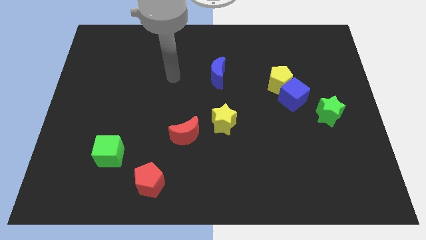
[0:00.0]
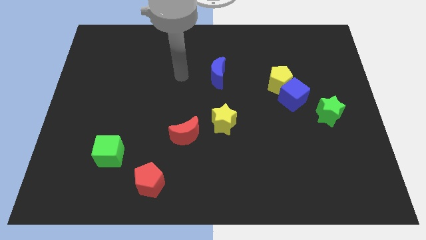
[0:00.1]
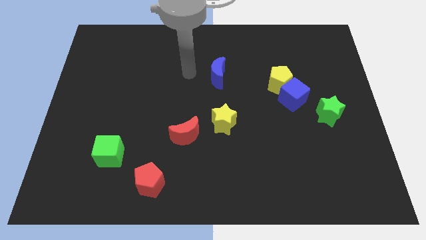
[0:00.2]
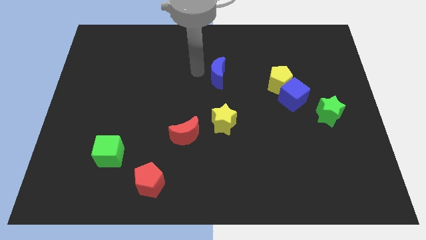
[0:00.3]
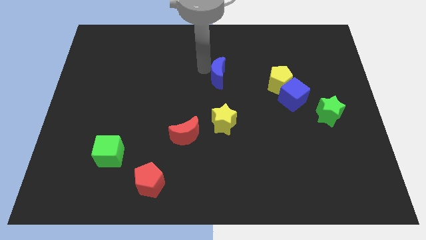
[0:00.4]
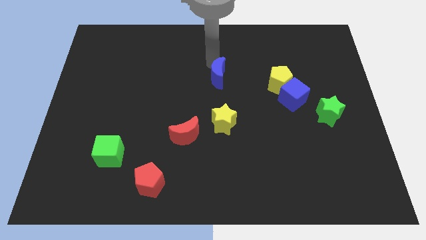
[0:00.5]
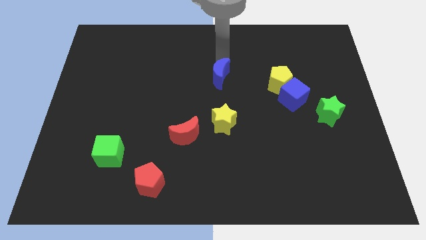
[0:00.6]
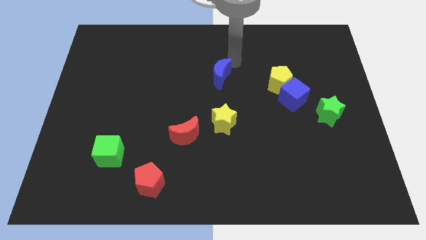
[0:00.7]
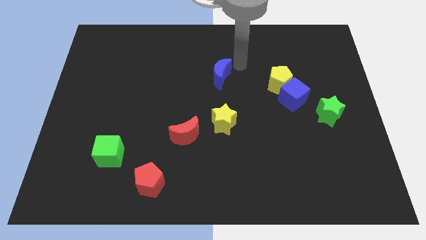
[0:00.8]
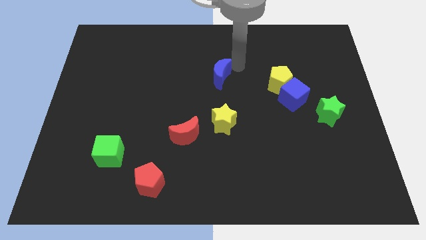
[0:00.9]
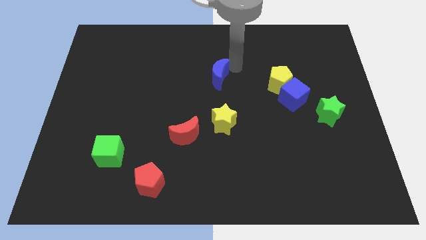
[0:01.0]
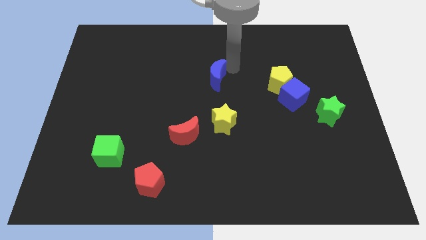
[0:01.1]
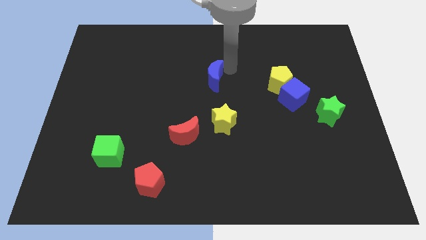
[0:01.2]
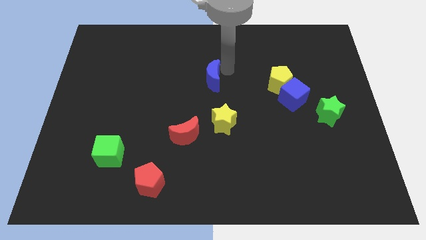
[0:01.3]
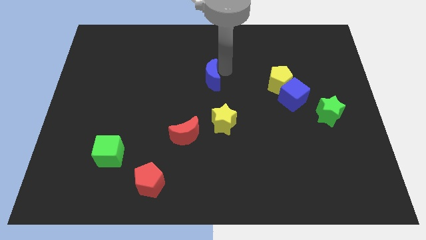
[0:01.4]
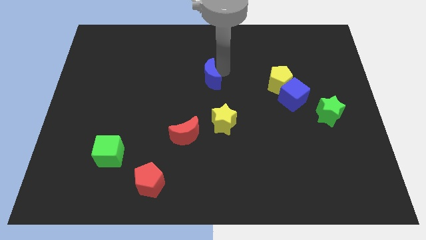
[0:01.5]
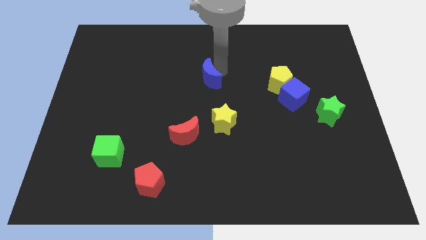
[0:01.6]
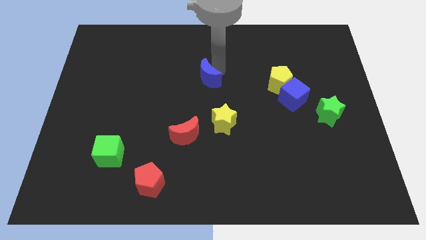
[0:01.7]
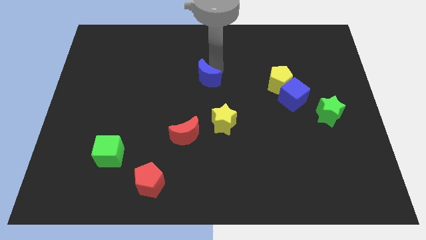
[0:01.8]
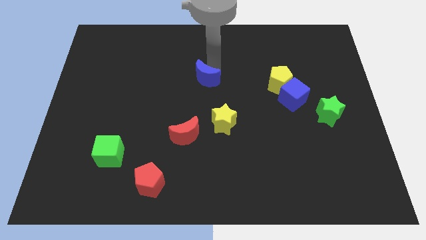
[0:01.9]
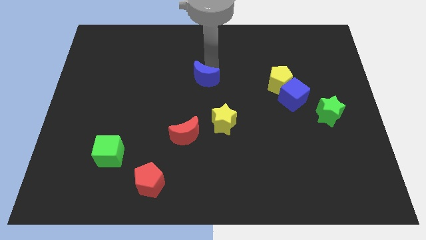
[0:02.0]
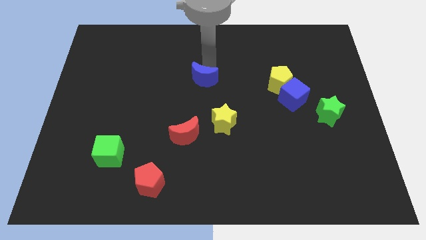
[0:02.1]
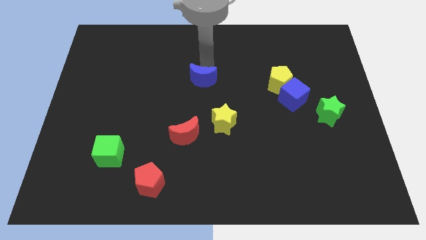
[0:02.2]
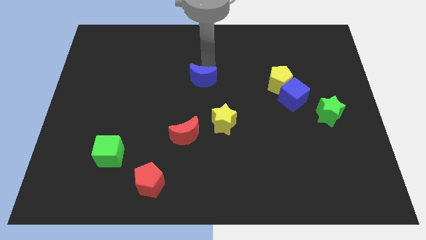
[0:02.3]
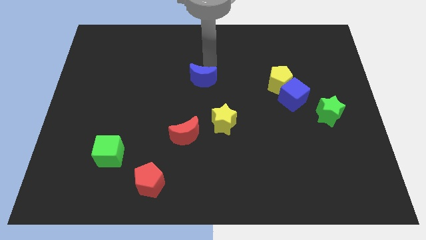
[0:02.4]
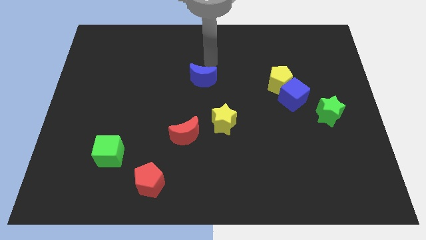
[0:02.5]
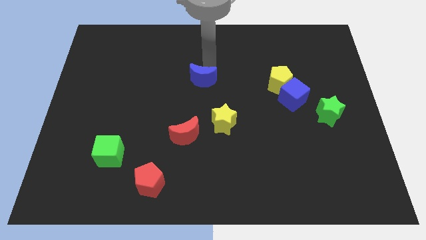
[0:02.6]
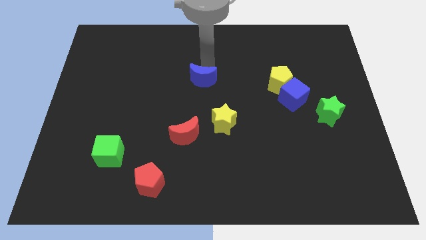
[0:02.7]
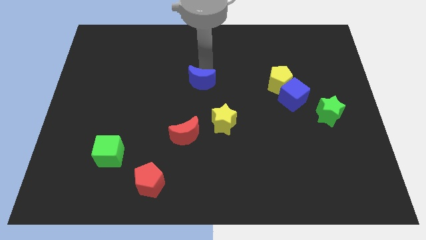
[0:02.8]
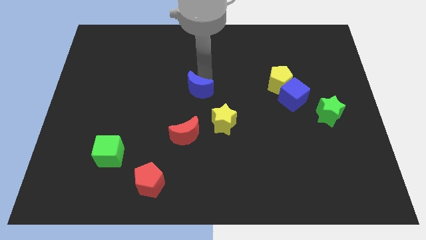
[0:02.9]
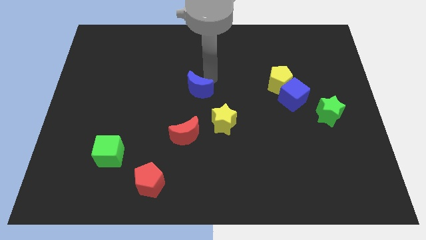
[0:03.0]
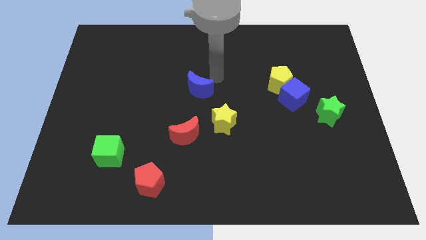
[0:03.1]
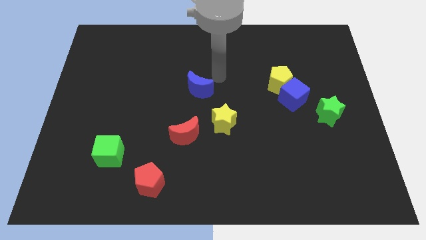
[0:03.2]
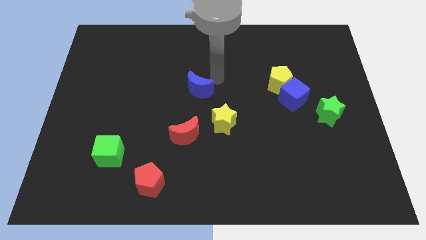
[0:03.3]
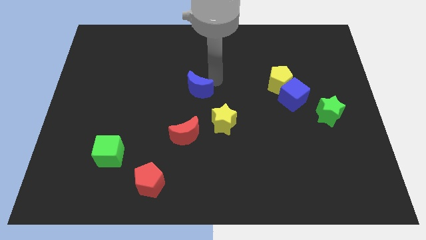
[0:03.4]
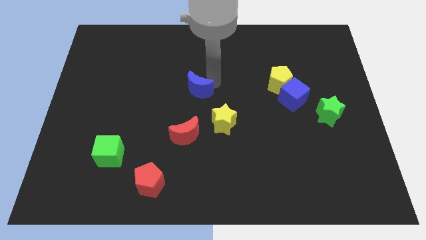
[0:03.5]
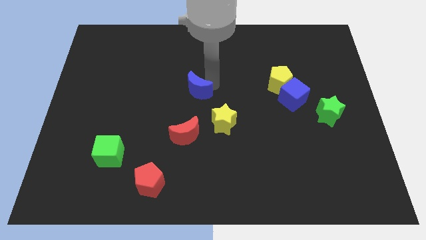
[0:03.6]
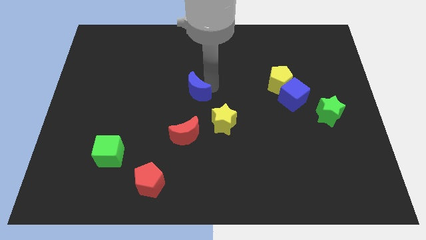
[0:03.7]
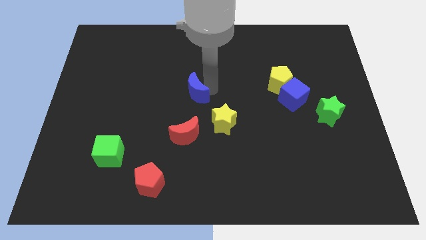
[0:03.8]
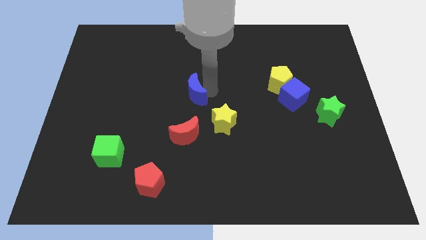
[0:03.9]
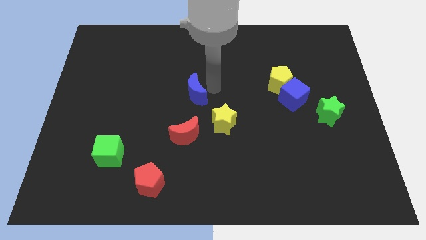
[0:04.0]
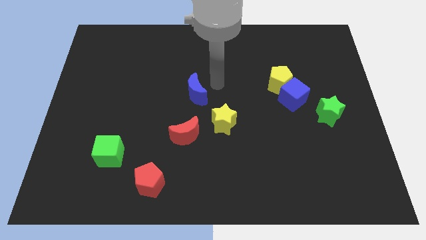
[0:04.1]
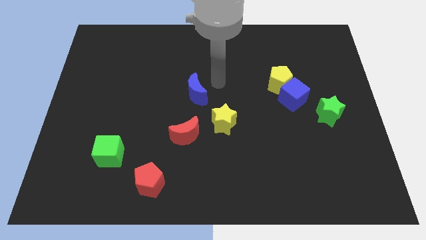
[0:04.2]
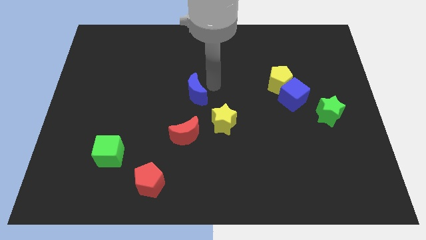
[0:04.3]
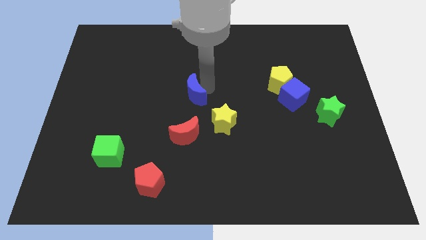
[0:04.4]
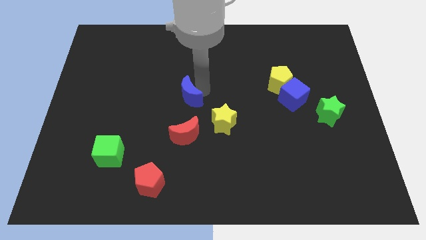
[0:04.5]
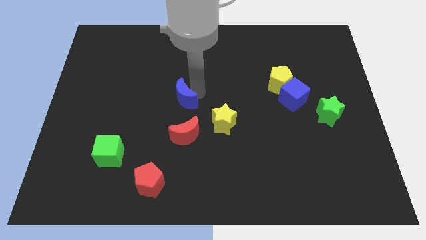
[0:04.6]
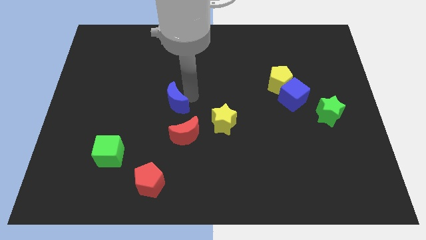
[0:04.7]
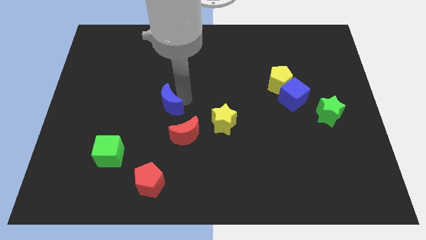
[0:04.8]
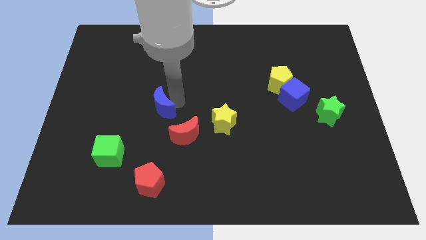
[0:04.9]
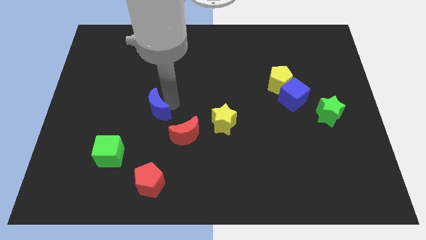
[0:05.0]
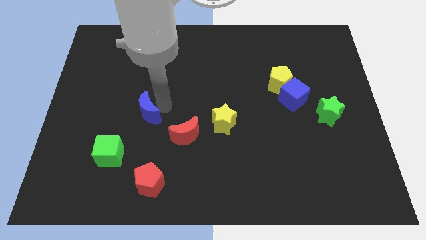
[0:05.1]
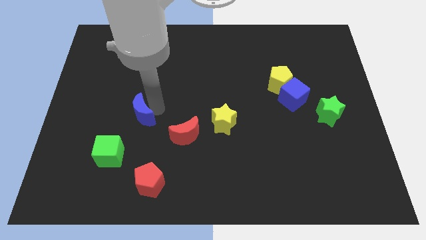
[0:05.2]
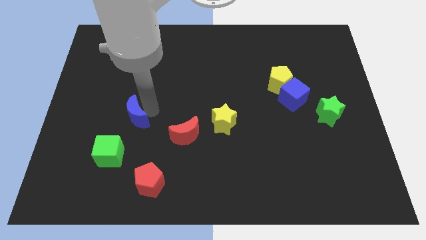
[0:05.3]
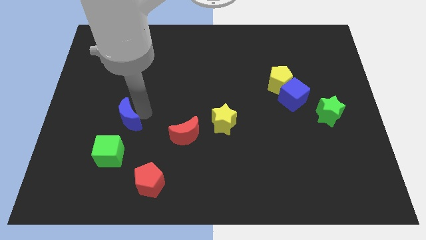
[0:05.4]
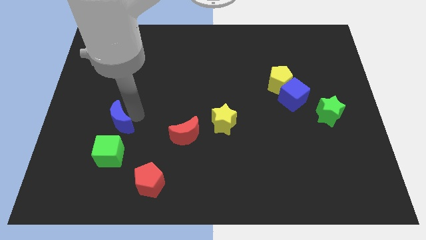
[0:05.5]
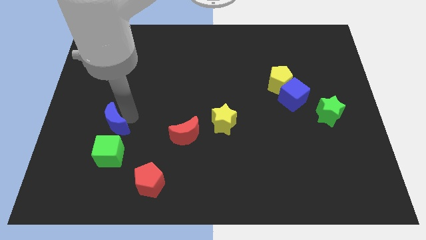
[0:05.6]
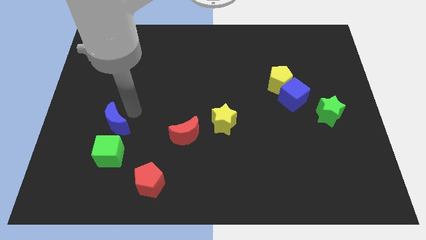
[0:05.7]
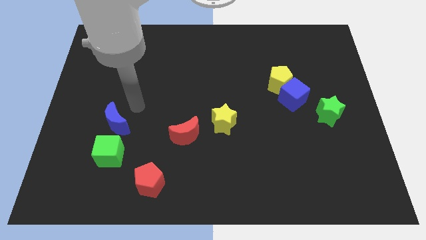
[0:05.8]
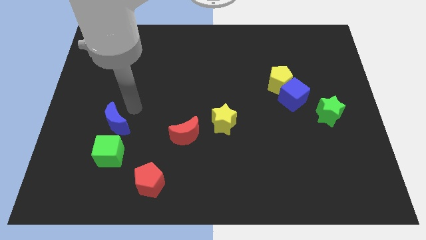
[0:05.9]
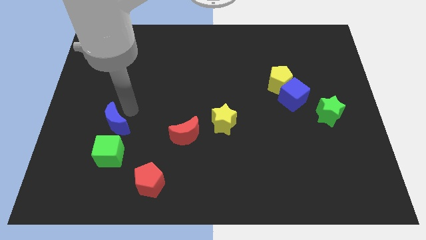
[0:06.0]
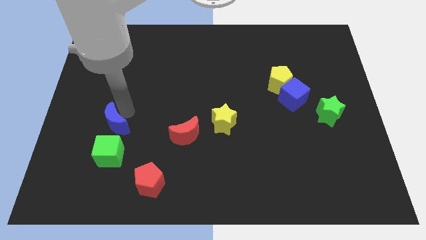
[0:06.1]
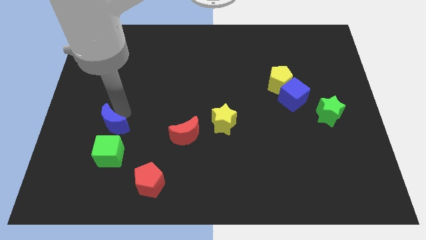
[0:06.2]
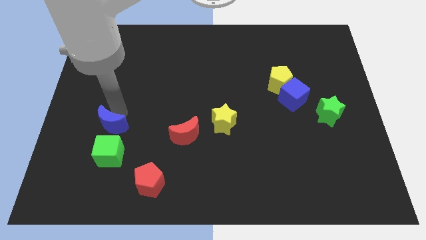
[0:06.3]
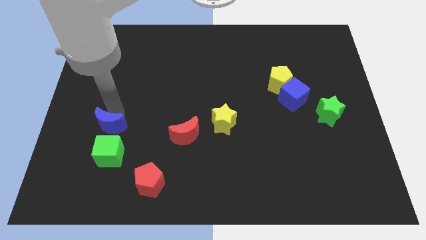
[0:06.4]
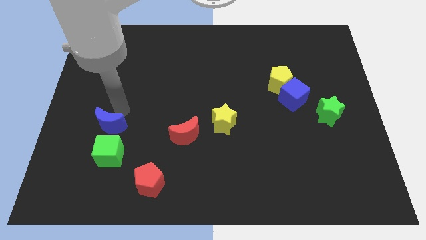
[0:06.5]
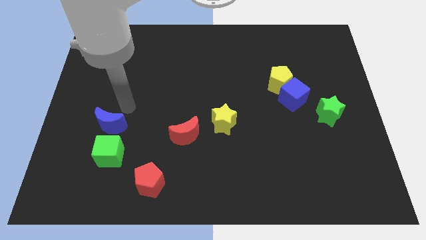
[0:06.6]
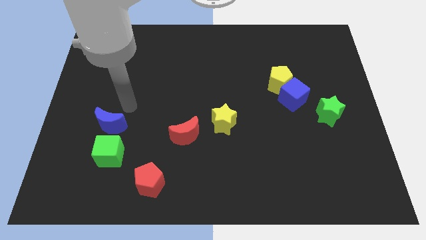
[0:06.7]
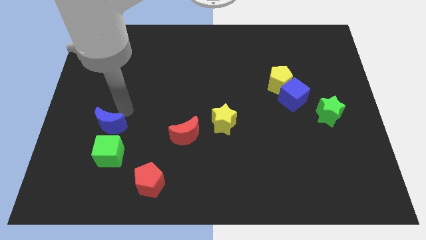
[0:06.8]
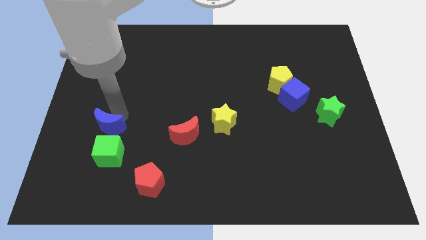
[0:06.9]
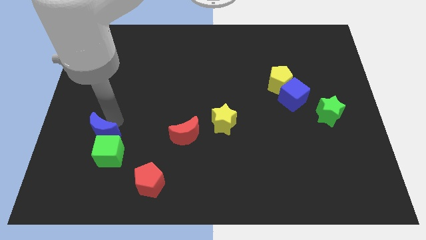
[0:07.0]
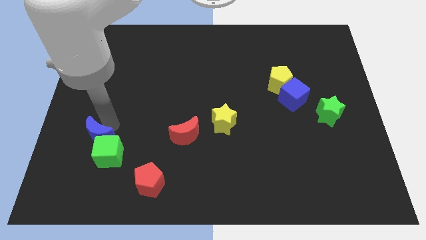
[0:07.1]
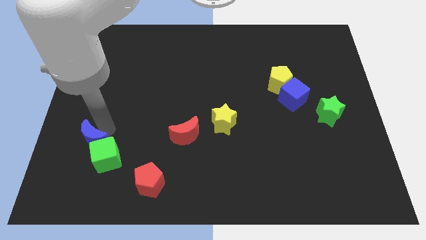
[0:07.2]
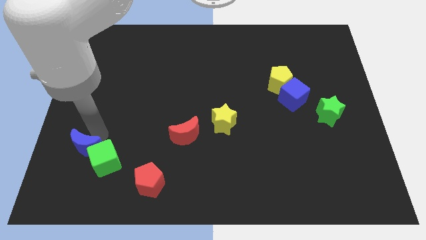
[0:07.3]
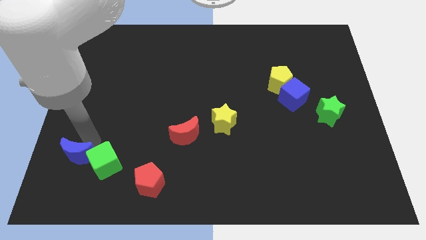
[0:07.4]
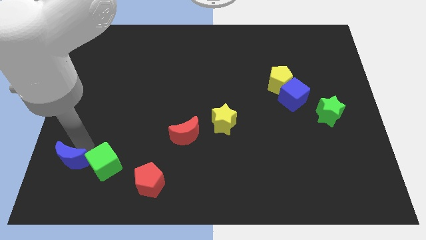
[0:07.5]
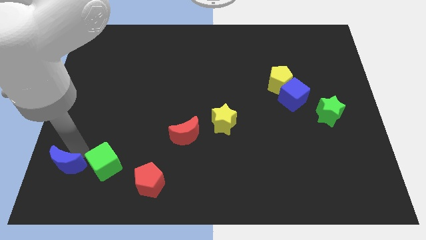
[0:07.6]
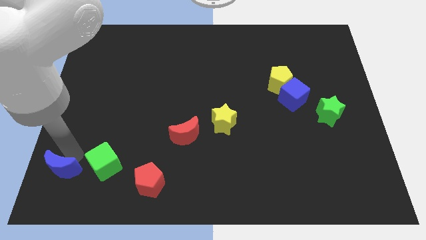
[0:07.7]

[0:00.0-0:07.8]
push the blue moon to the lower left corner
